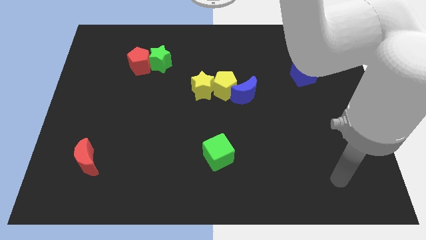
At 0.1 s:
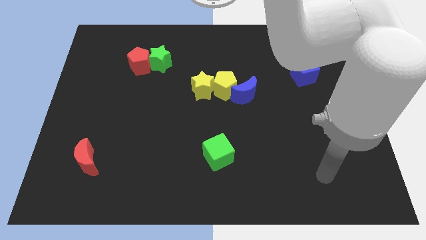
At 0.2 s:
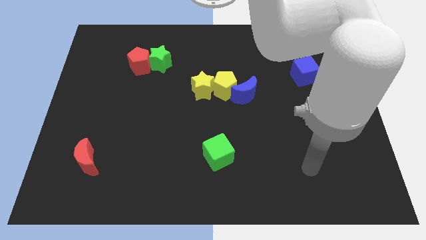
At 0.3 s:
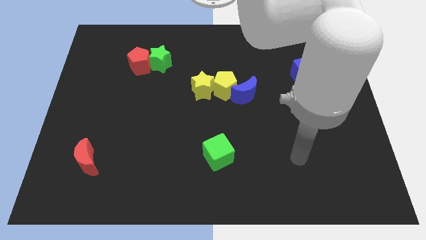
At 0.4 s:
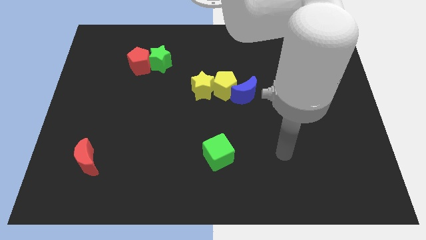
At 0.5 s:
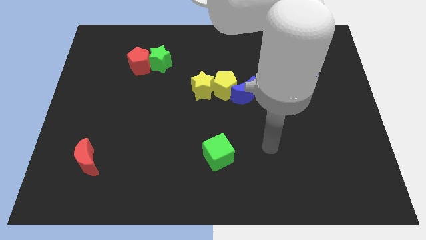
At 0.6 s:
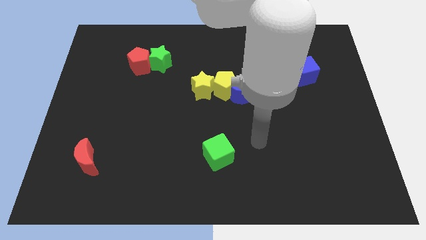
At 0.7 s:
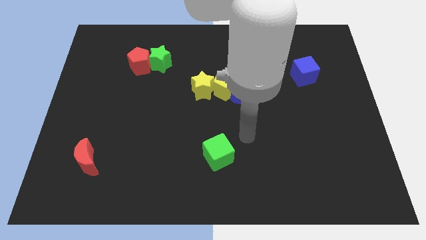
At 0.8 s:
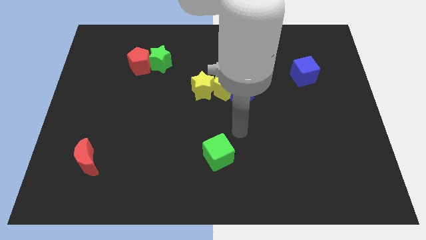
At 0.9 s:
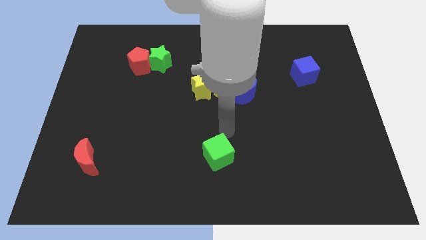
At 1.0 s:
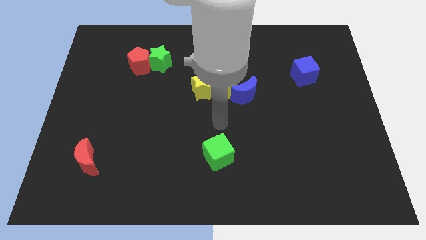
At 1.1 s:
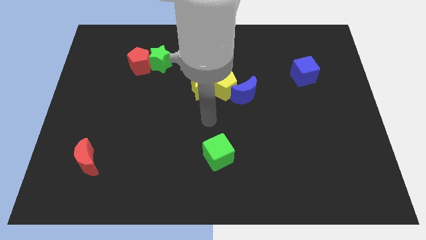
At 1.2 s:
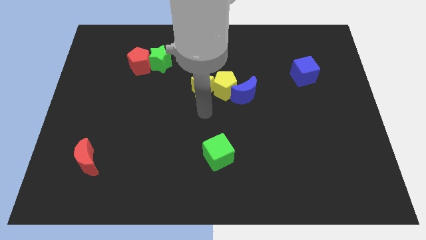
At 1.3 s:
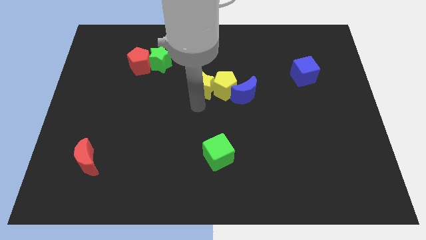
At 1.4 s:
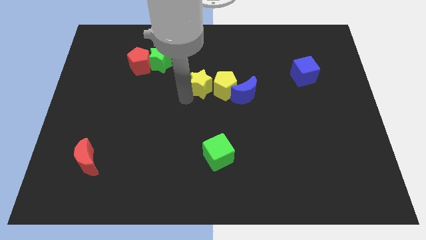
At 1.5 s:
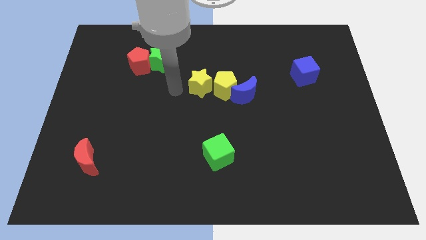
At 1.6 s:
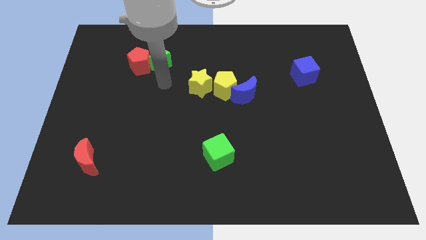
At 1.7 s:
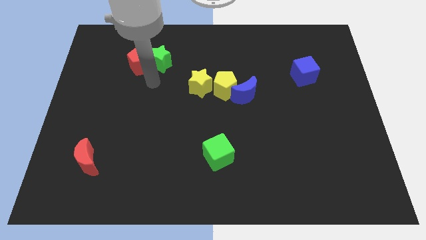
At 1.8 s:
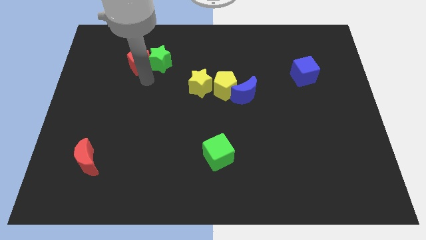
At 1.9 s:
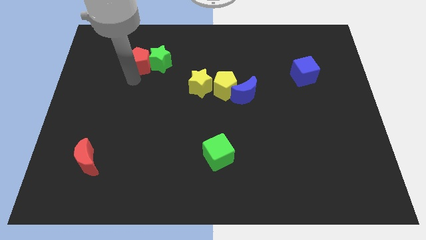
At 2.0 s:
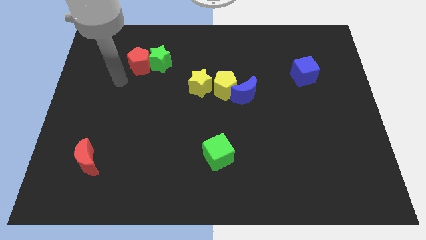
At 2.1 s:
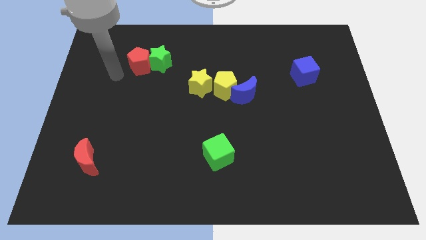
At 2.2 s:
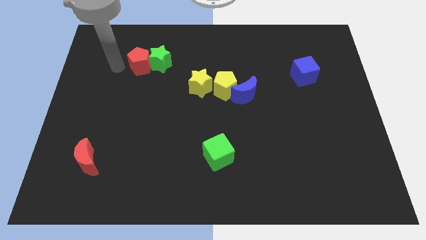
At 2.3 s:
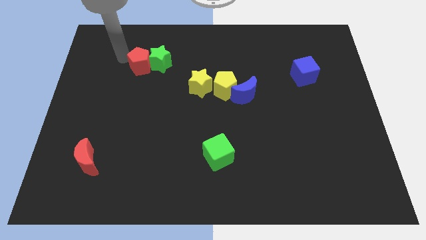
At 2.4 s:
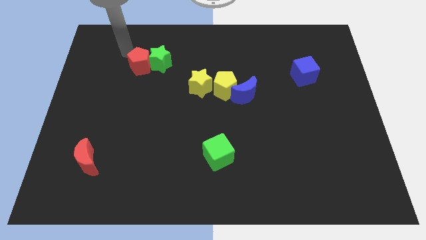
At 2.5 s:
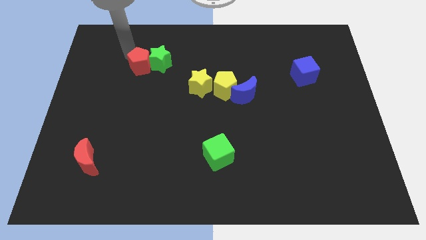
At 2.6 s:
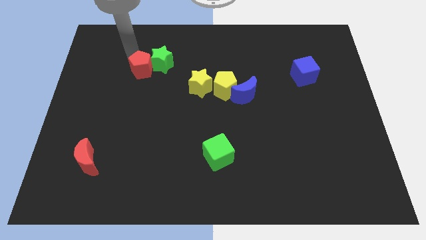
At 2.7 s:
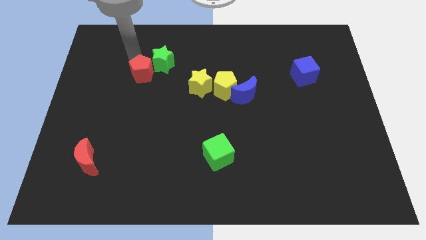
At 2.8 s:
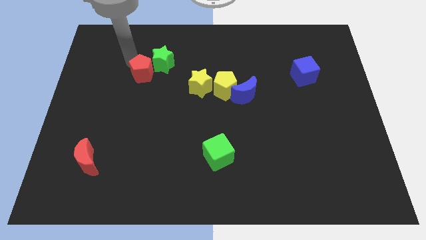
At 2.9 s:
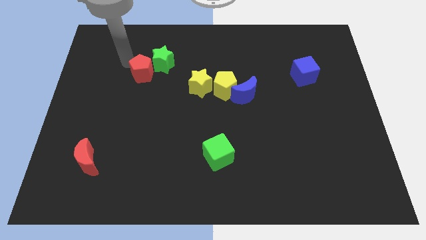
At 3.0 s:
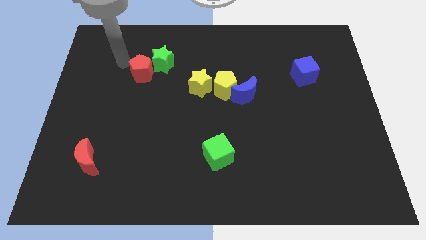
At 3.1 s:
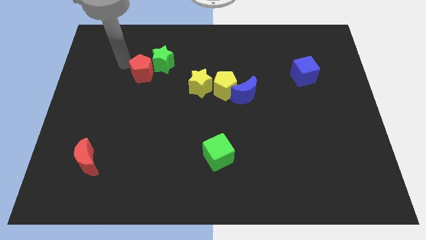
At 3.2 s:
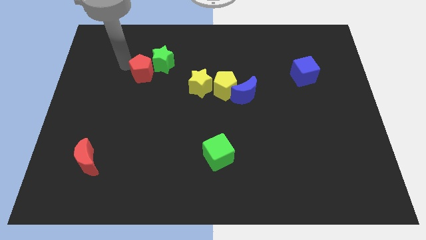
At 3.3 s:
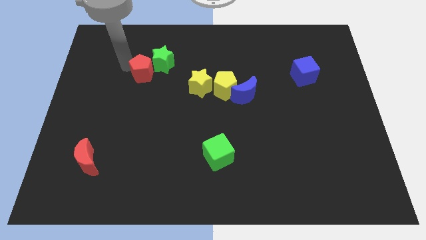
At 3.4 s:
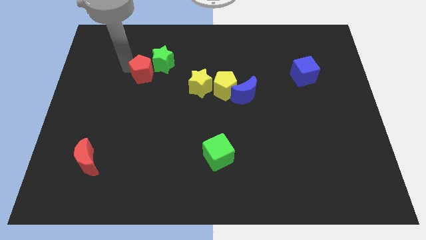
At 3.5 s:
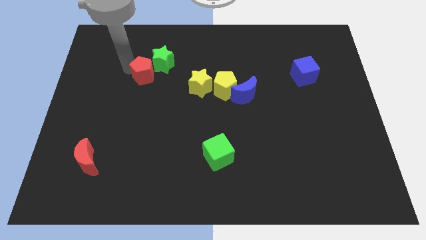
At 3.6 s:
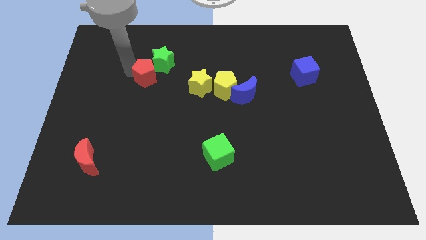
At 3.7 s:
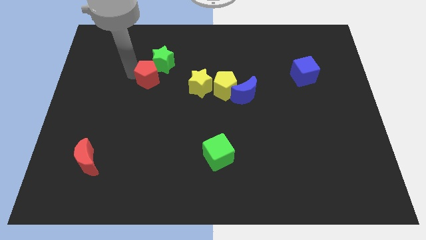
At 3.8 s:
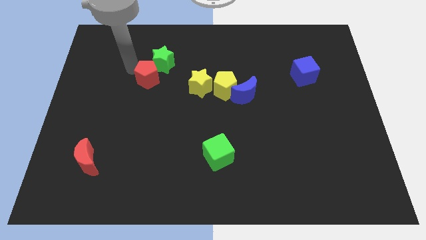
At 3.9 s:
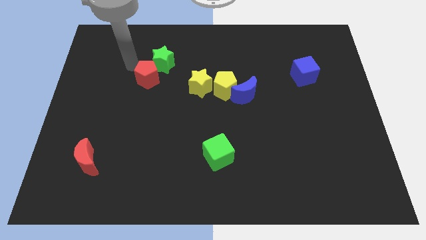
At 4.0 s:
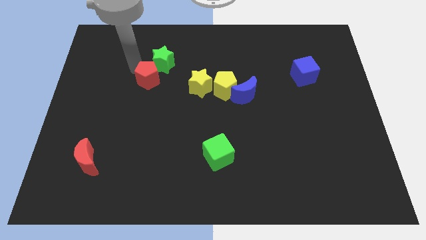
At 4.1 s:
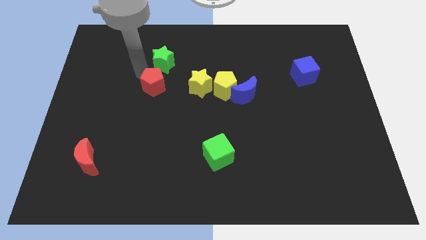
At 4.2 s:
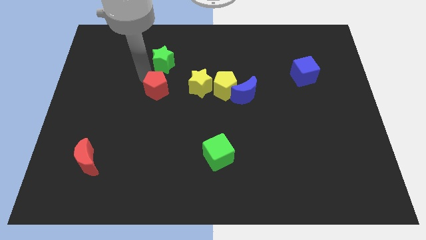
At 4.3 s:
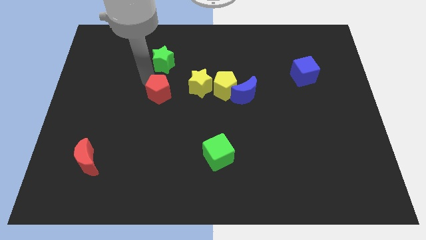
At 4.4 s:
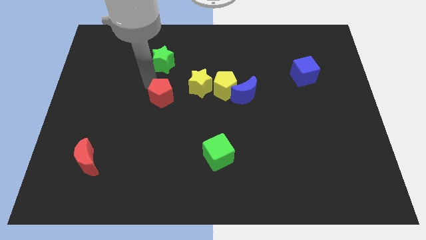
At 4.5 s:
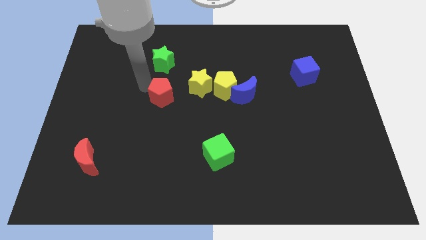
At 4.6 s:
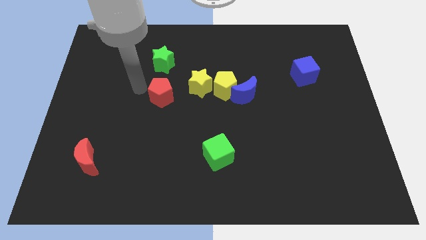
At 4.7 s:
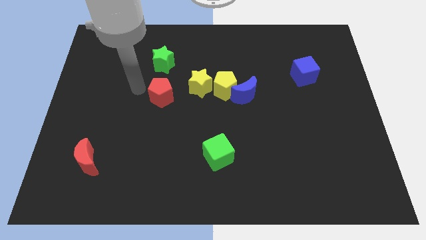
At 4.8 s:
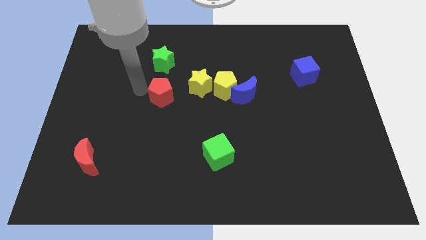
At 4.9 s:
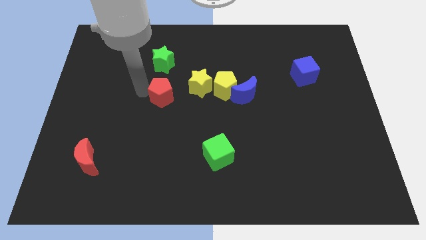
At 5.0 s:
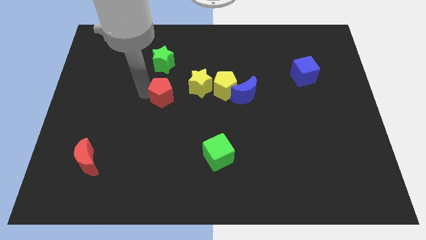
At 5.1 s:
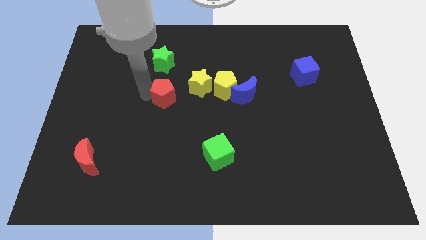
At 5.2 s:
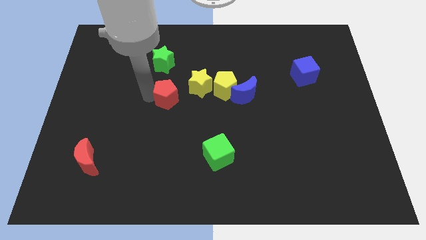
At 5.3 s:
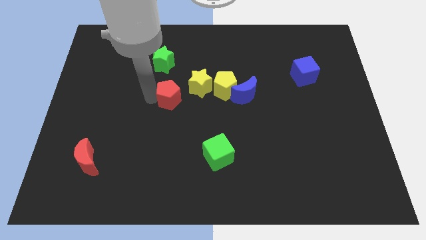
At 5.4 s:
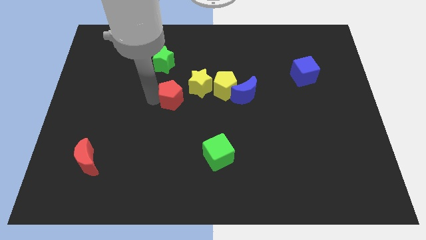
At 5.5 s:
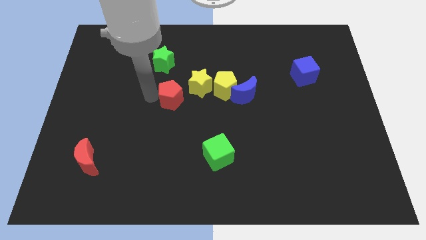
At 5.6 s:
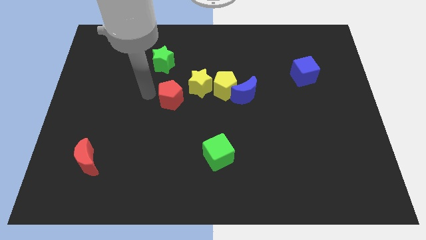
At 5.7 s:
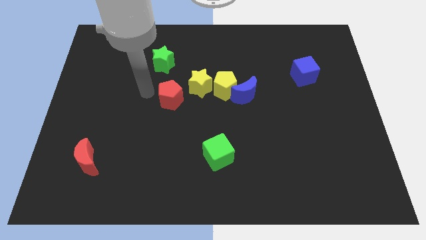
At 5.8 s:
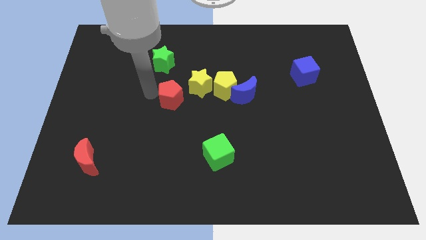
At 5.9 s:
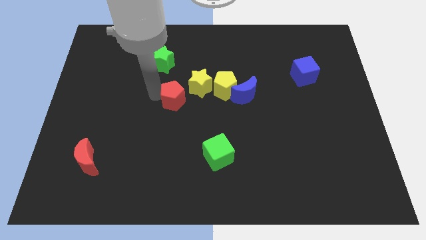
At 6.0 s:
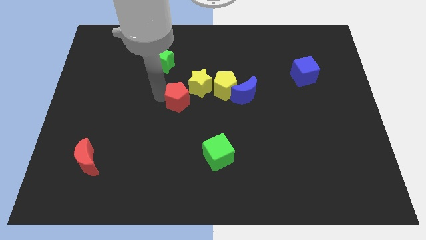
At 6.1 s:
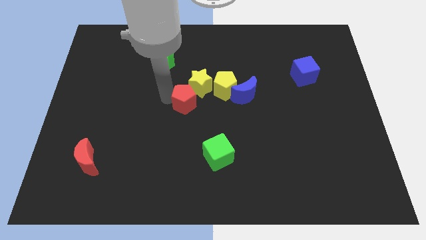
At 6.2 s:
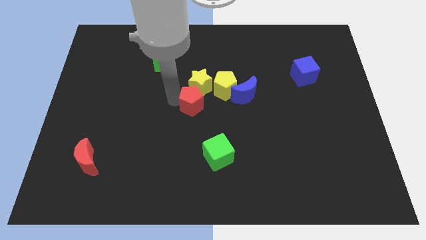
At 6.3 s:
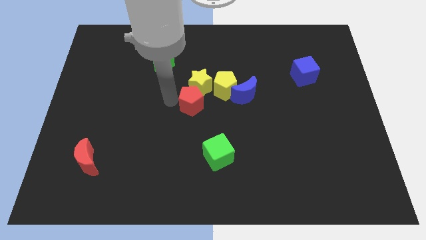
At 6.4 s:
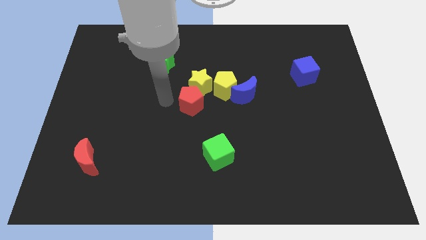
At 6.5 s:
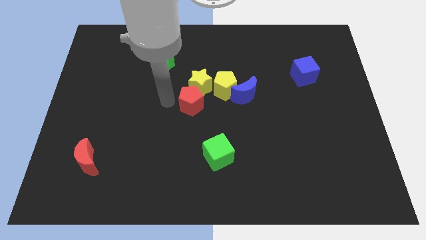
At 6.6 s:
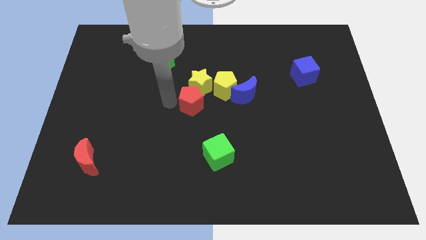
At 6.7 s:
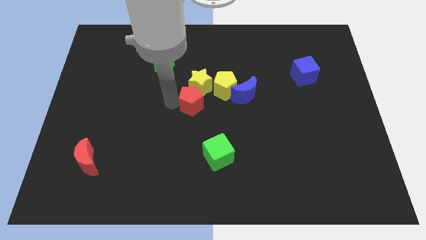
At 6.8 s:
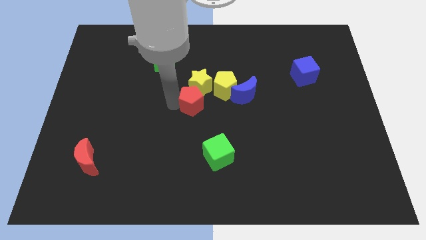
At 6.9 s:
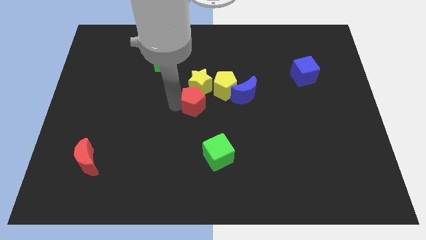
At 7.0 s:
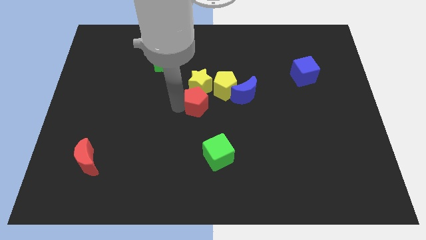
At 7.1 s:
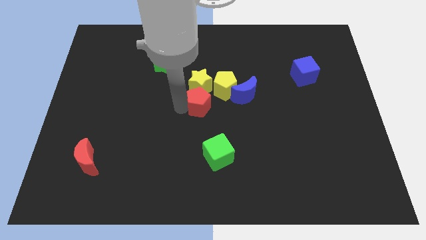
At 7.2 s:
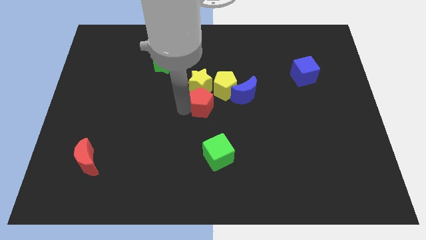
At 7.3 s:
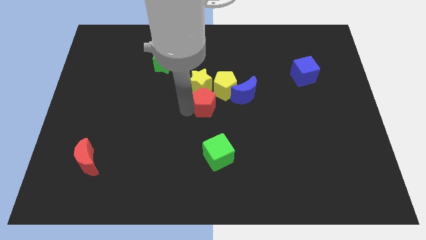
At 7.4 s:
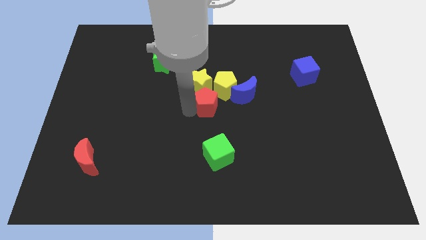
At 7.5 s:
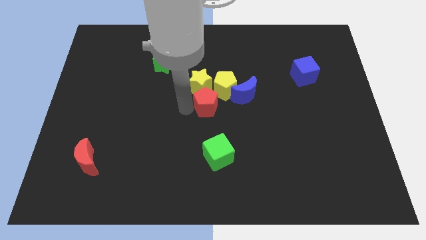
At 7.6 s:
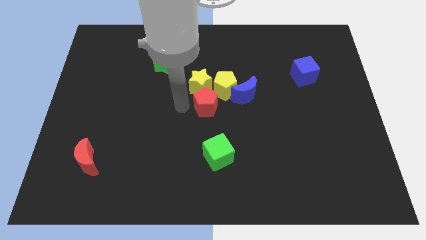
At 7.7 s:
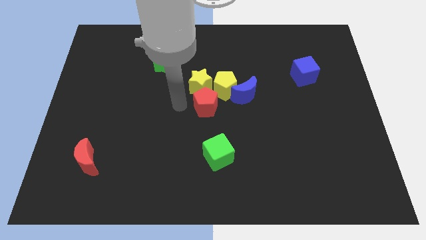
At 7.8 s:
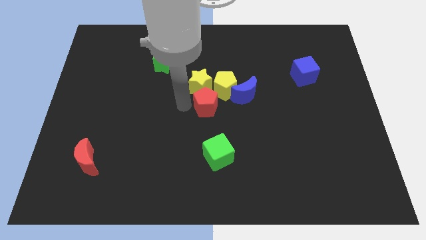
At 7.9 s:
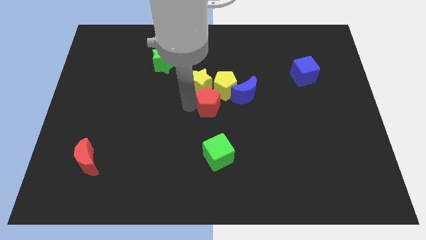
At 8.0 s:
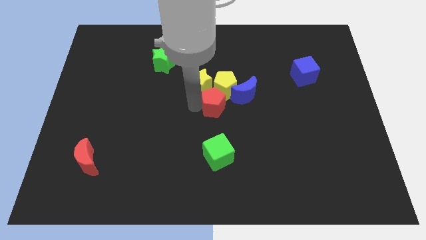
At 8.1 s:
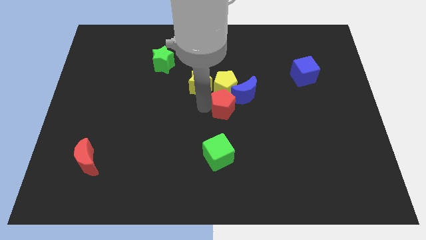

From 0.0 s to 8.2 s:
put the red pentagon to the bottom right side of the yellow pentagon
